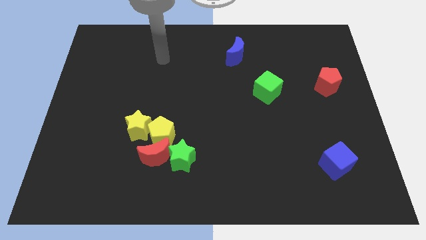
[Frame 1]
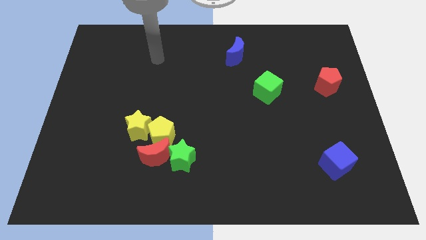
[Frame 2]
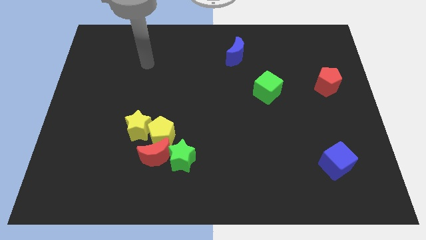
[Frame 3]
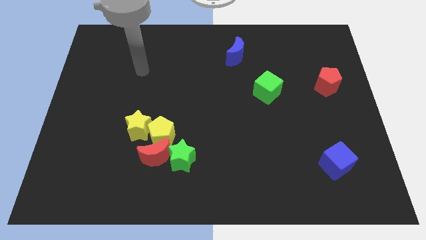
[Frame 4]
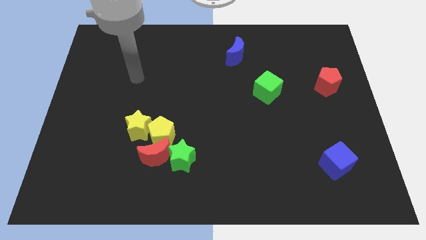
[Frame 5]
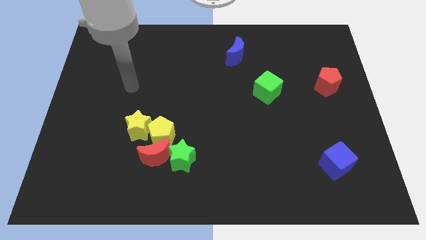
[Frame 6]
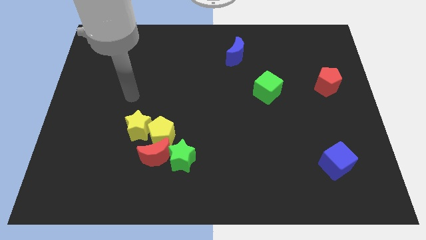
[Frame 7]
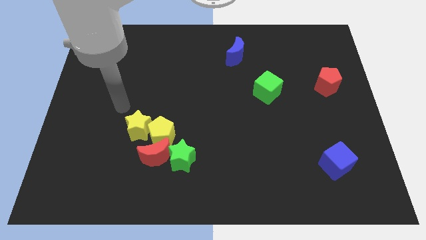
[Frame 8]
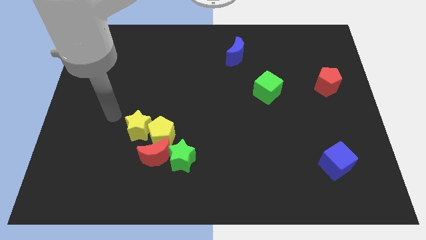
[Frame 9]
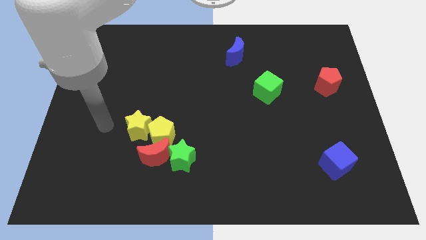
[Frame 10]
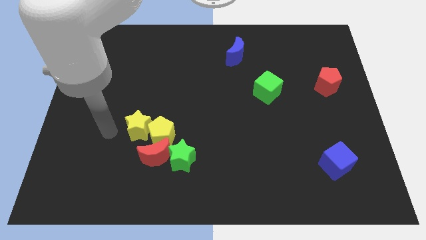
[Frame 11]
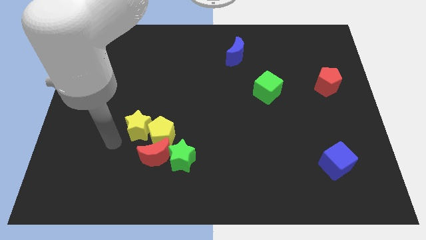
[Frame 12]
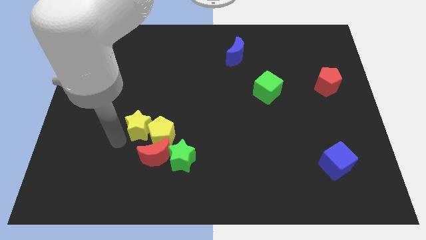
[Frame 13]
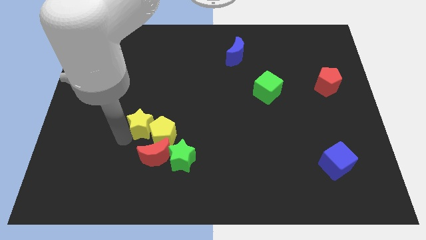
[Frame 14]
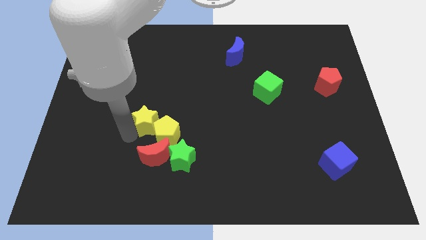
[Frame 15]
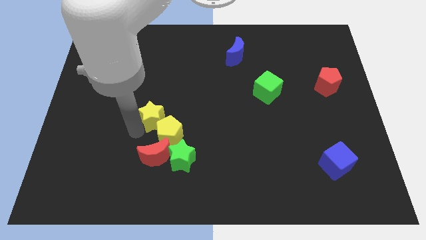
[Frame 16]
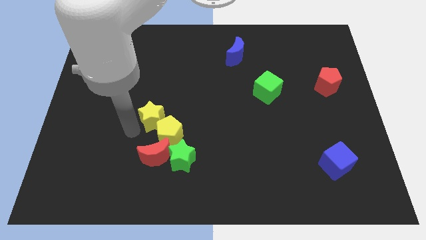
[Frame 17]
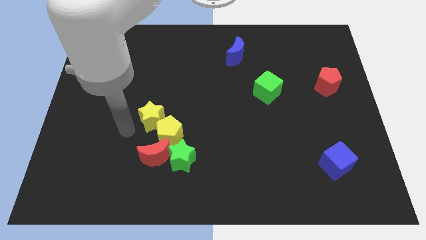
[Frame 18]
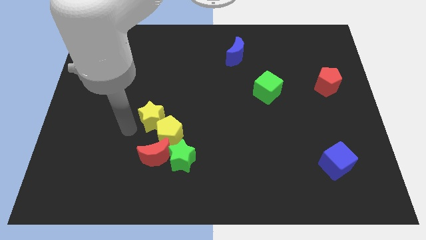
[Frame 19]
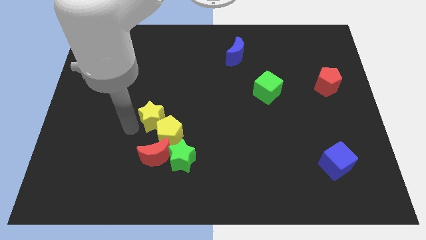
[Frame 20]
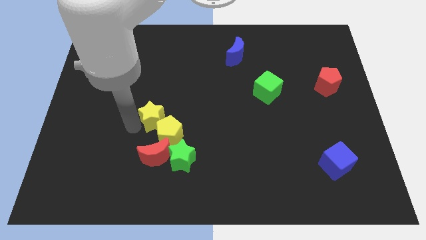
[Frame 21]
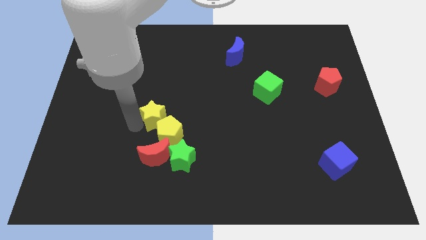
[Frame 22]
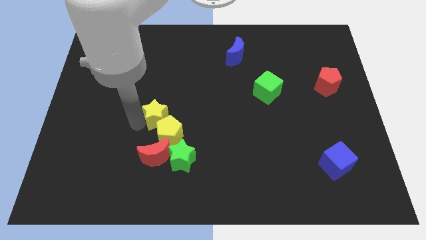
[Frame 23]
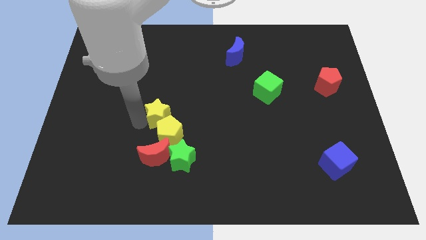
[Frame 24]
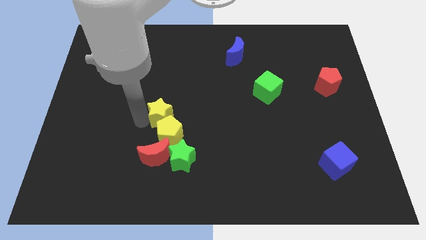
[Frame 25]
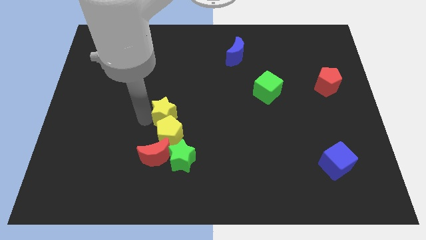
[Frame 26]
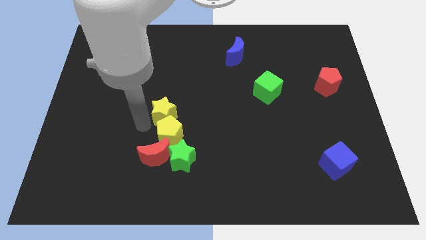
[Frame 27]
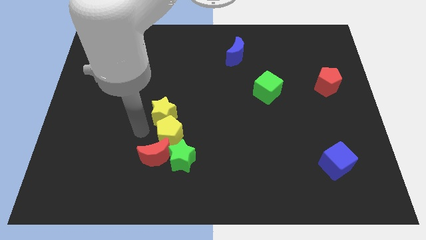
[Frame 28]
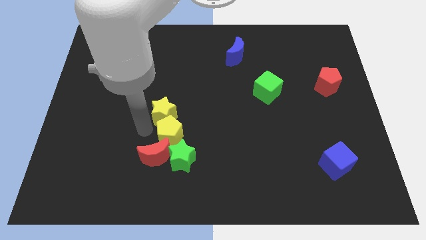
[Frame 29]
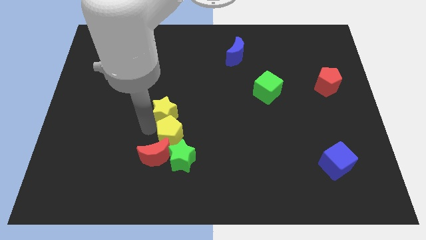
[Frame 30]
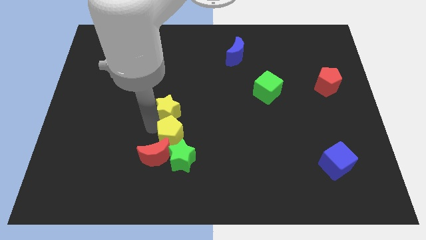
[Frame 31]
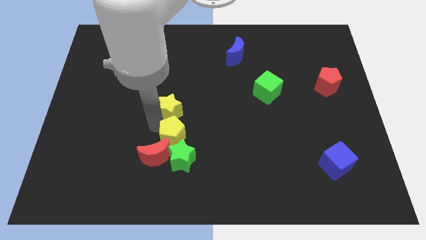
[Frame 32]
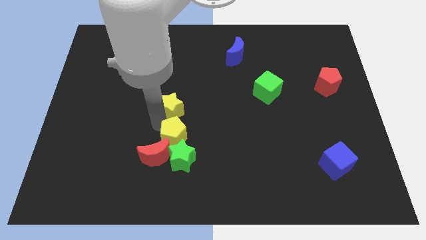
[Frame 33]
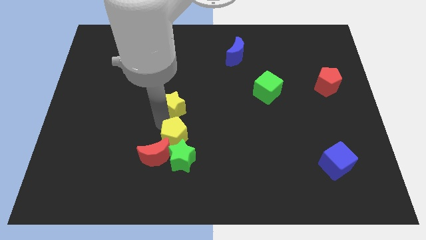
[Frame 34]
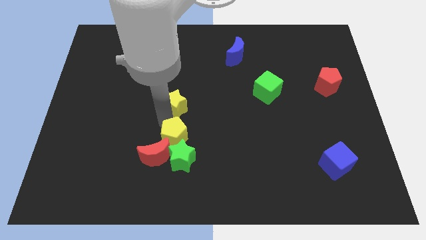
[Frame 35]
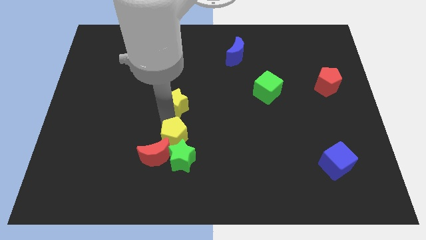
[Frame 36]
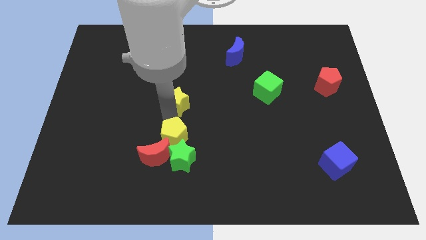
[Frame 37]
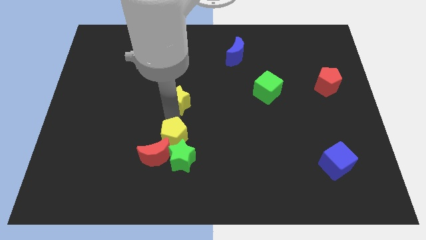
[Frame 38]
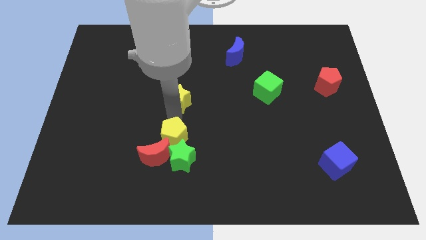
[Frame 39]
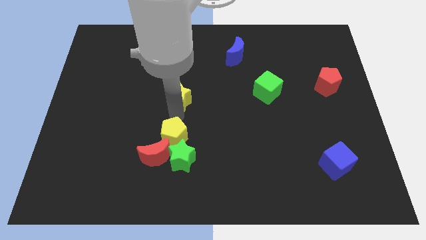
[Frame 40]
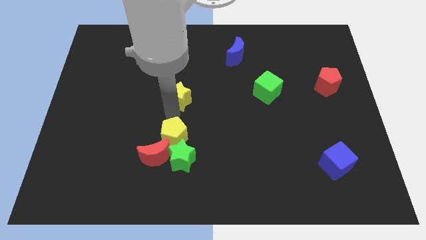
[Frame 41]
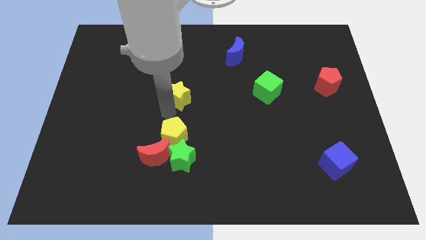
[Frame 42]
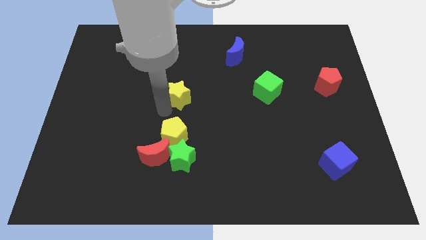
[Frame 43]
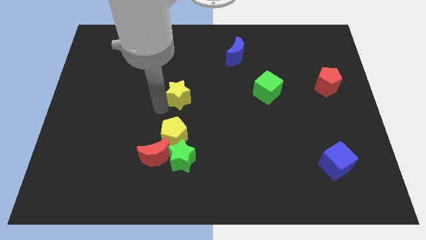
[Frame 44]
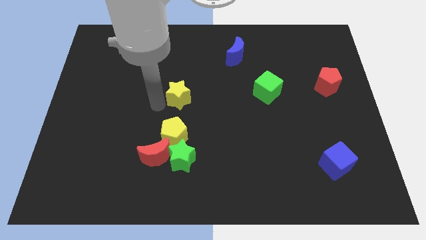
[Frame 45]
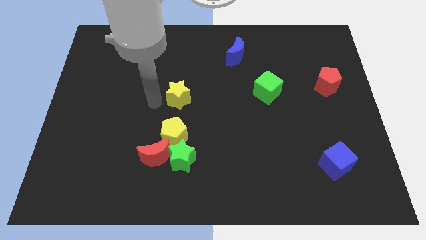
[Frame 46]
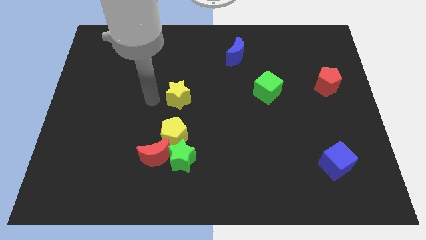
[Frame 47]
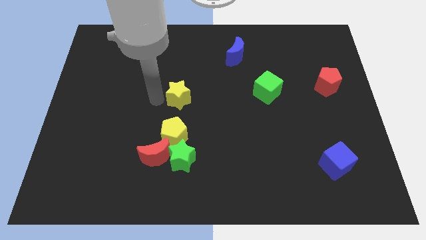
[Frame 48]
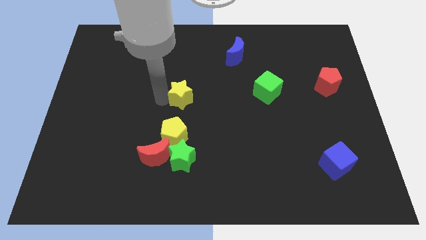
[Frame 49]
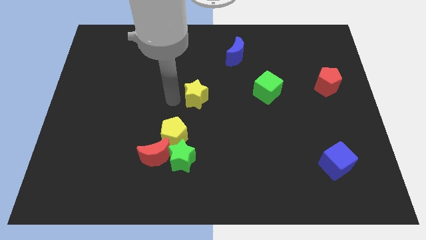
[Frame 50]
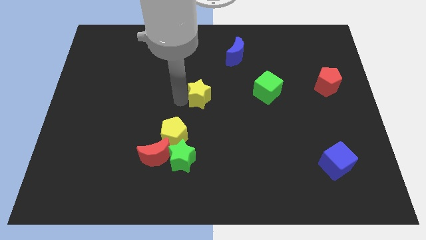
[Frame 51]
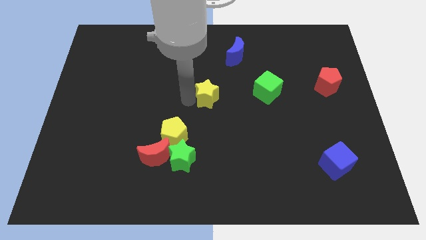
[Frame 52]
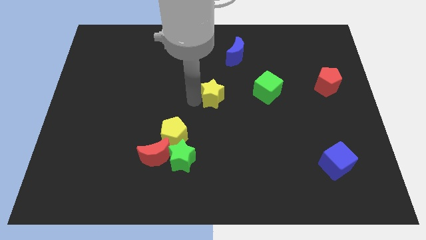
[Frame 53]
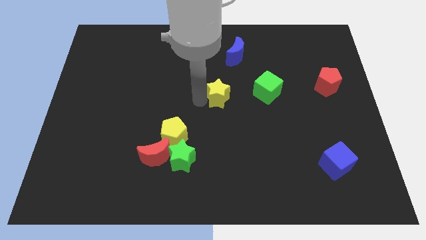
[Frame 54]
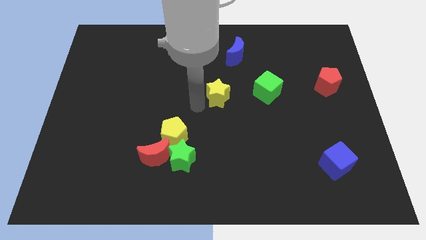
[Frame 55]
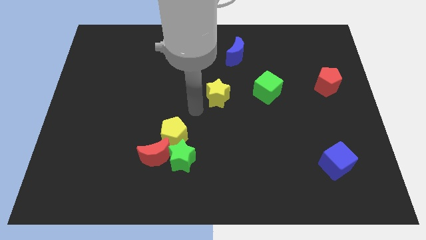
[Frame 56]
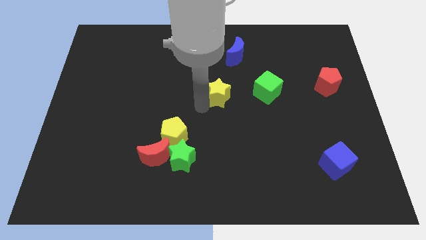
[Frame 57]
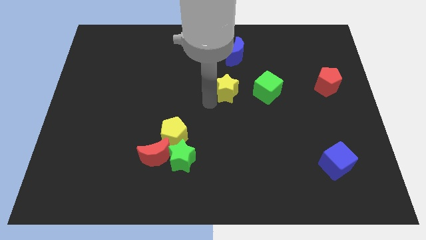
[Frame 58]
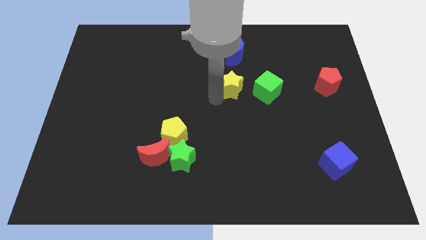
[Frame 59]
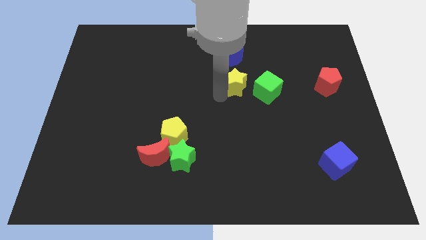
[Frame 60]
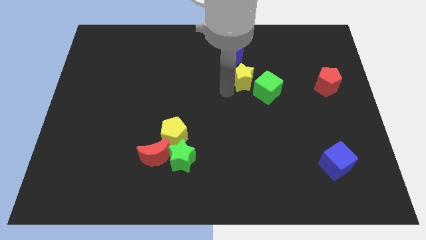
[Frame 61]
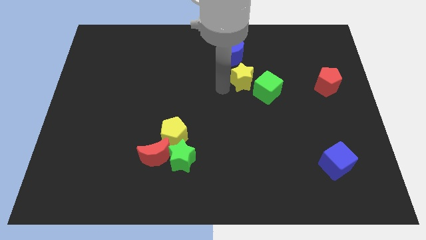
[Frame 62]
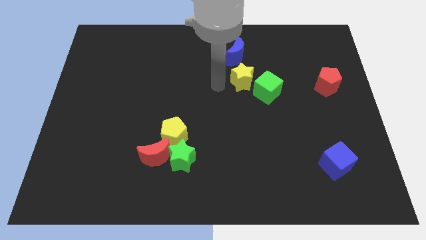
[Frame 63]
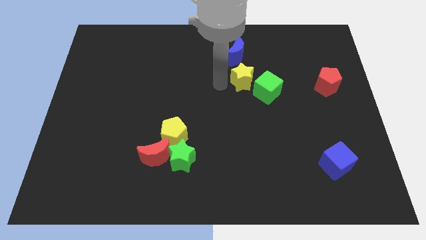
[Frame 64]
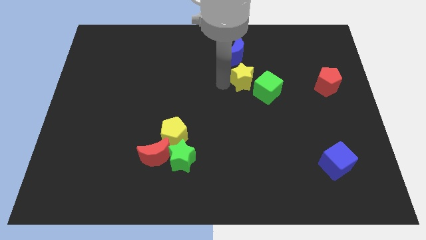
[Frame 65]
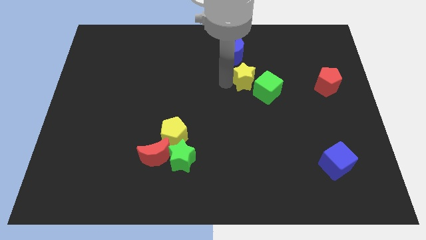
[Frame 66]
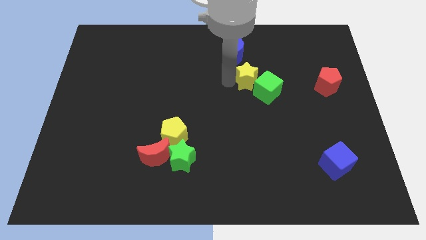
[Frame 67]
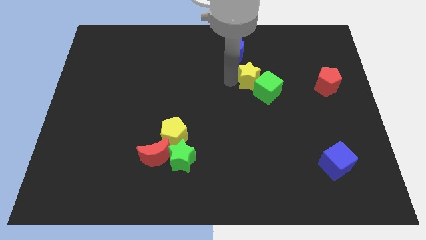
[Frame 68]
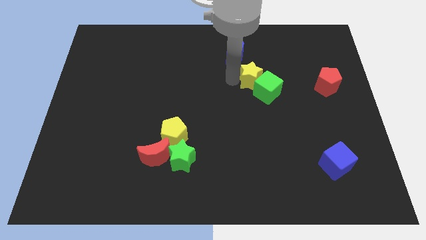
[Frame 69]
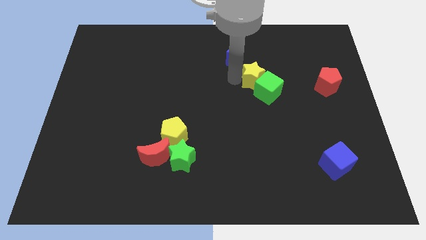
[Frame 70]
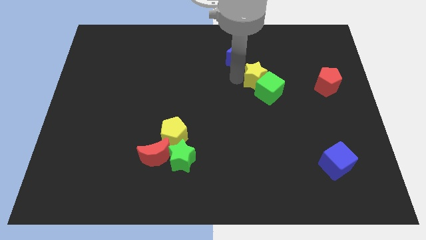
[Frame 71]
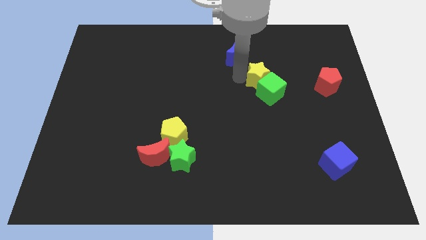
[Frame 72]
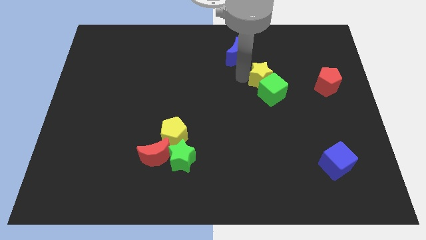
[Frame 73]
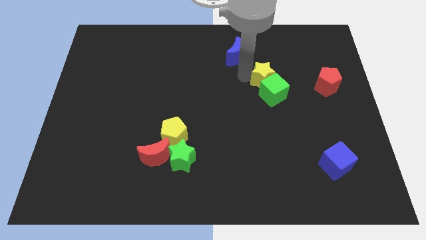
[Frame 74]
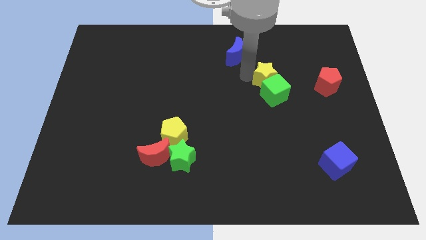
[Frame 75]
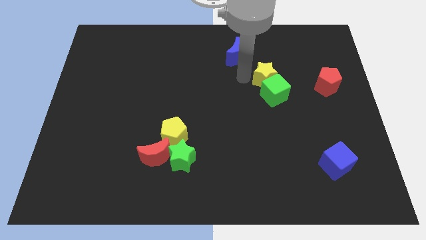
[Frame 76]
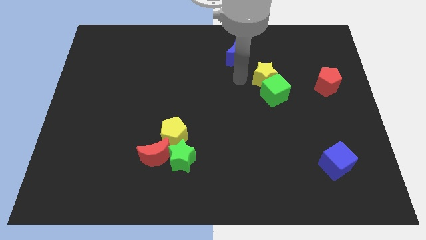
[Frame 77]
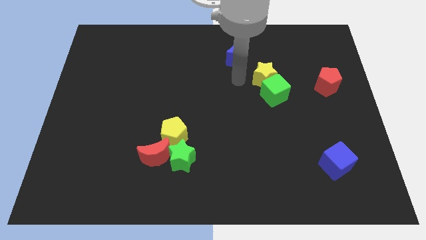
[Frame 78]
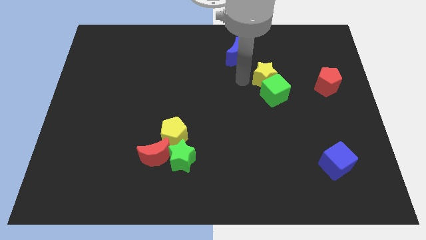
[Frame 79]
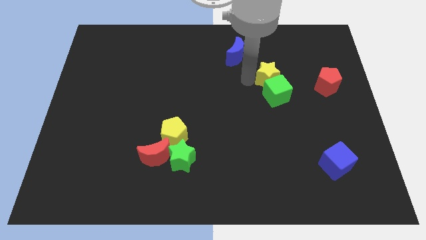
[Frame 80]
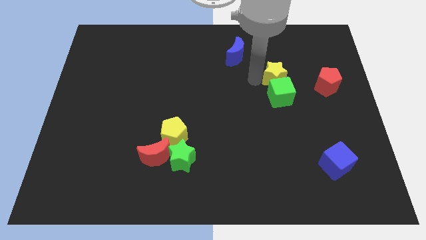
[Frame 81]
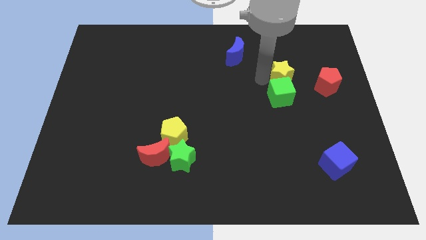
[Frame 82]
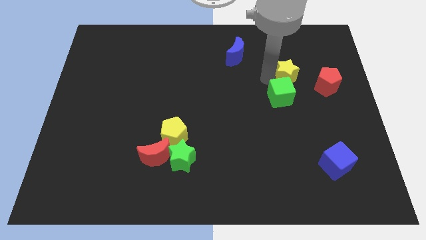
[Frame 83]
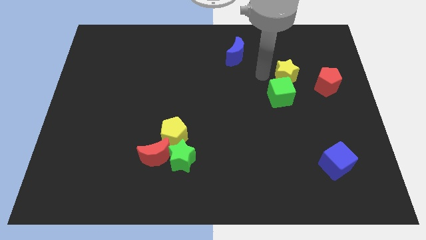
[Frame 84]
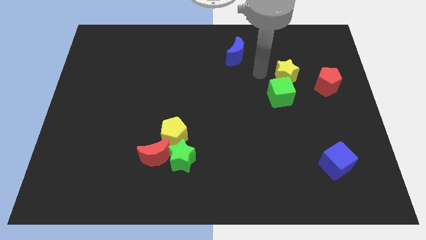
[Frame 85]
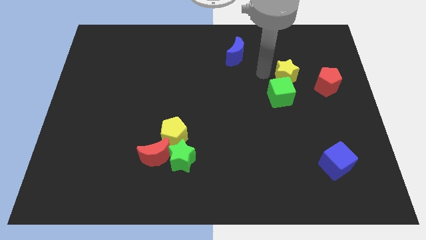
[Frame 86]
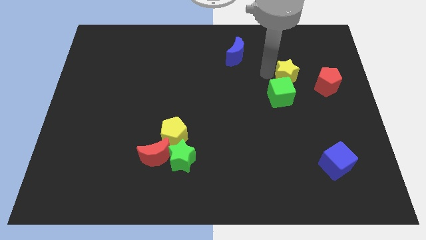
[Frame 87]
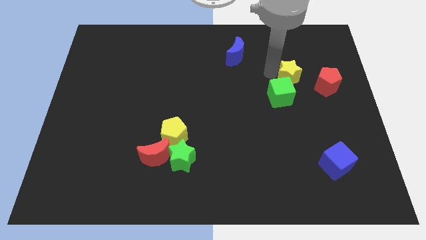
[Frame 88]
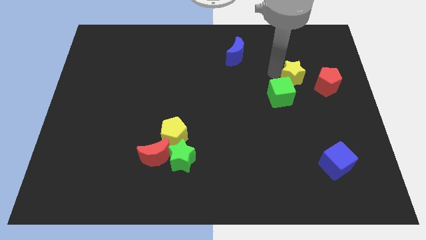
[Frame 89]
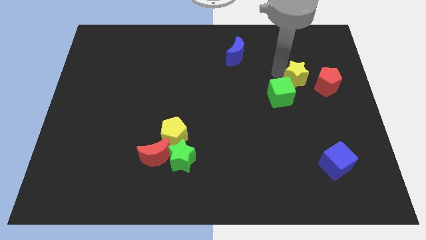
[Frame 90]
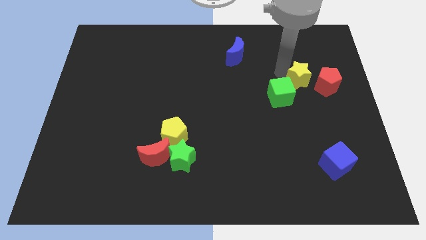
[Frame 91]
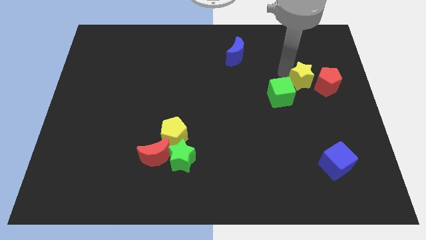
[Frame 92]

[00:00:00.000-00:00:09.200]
push the yellow star to the red pentagon
